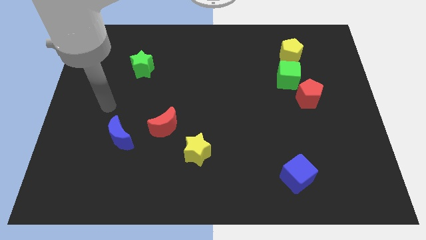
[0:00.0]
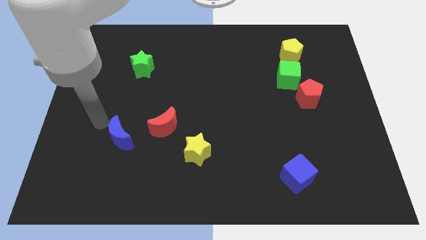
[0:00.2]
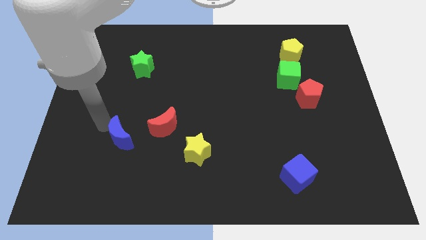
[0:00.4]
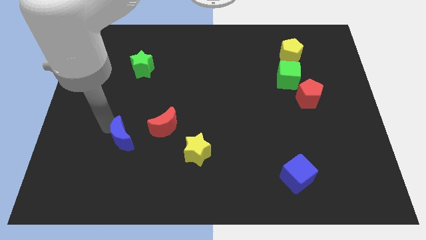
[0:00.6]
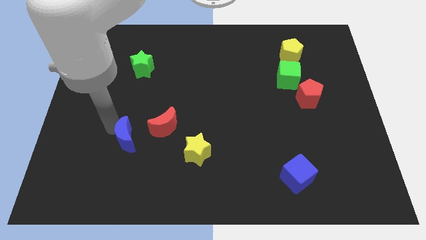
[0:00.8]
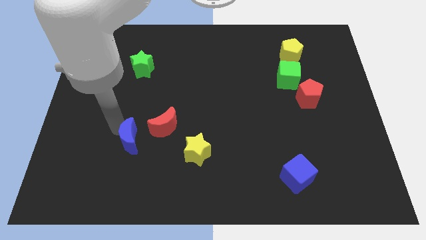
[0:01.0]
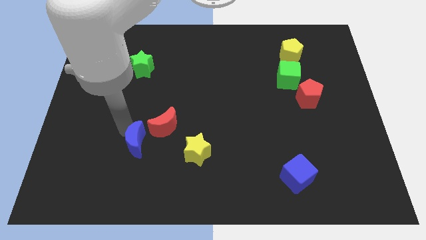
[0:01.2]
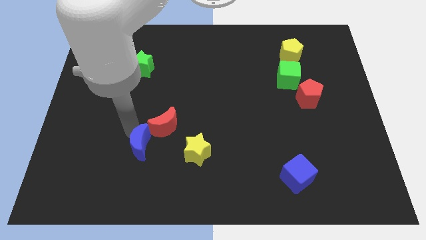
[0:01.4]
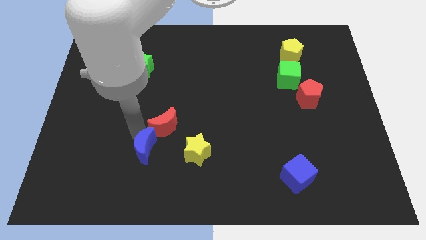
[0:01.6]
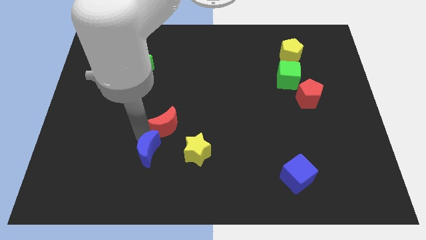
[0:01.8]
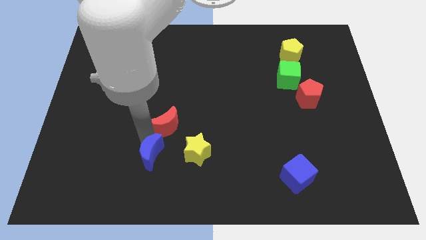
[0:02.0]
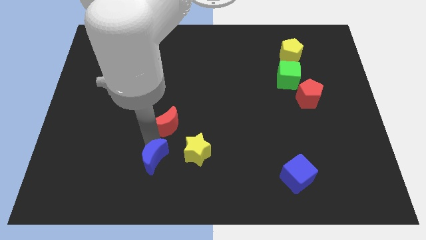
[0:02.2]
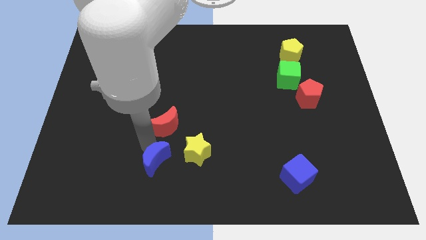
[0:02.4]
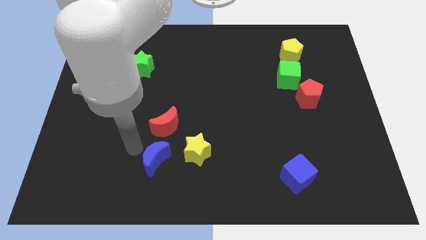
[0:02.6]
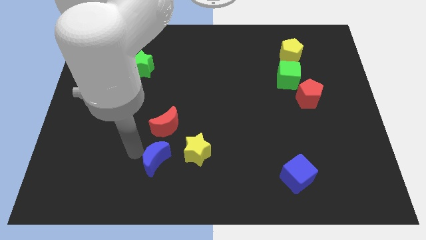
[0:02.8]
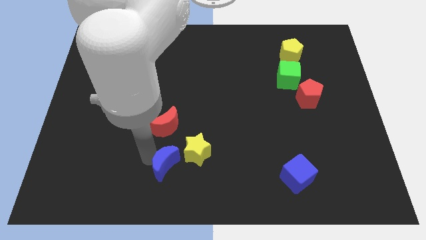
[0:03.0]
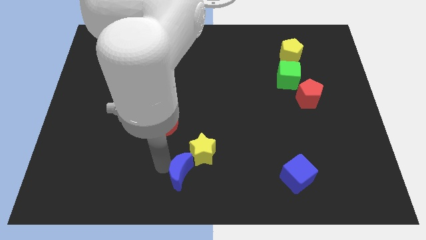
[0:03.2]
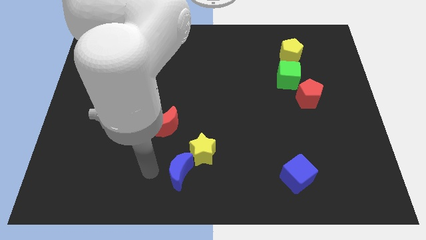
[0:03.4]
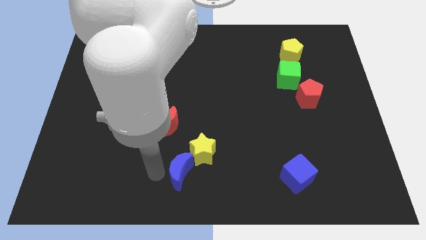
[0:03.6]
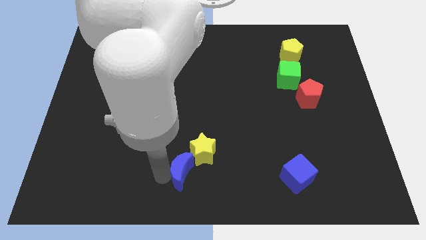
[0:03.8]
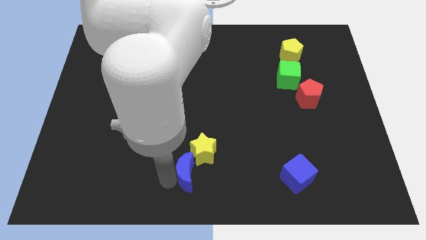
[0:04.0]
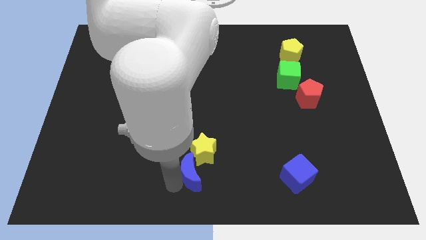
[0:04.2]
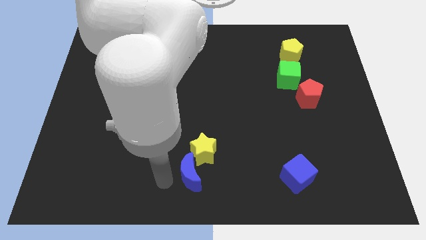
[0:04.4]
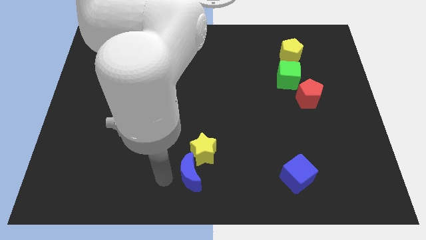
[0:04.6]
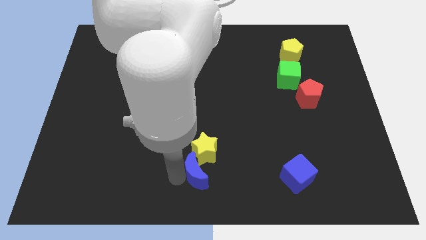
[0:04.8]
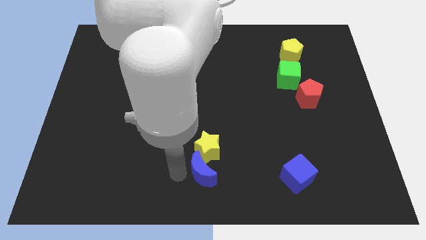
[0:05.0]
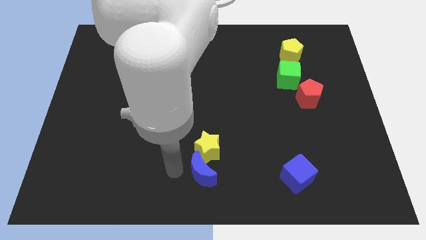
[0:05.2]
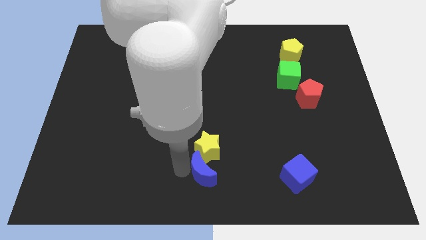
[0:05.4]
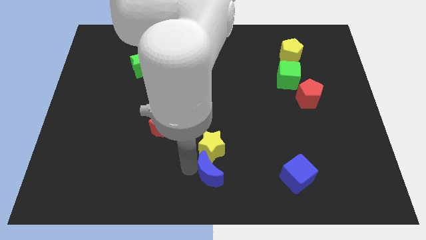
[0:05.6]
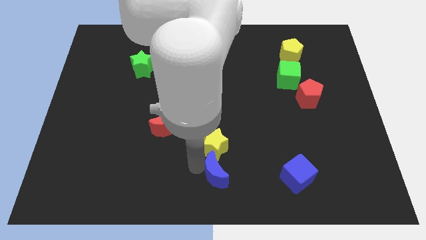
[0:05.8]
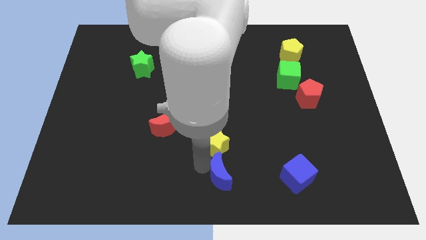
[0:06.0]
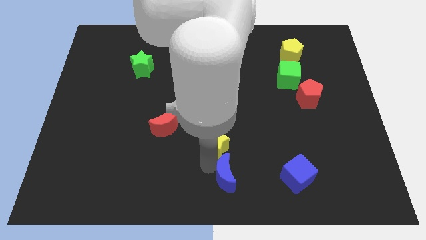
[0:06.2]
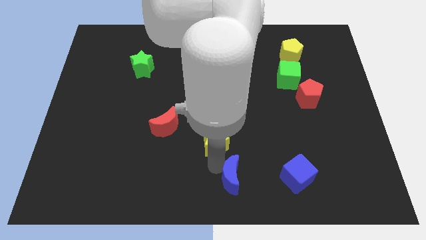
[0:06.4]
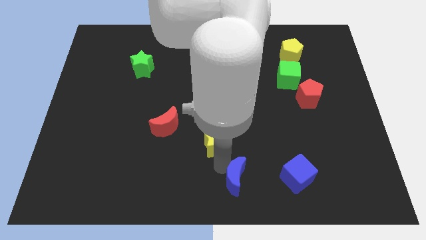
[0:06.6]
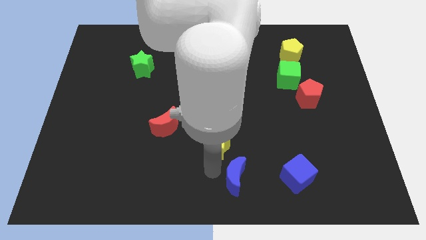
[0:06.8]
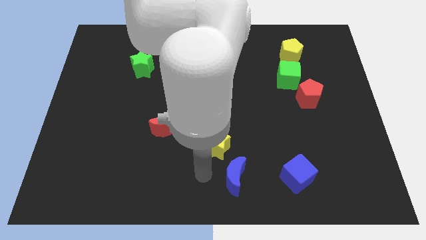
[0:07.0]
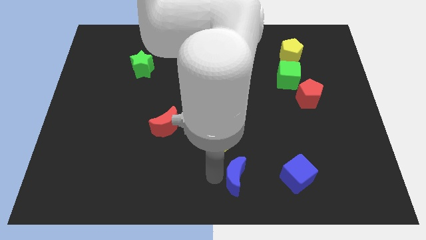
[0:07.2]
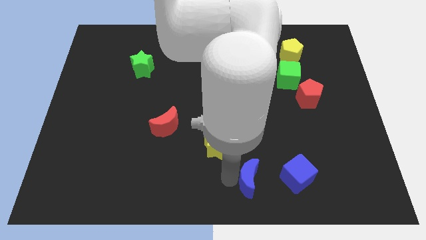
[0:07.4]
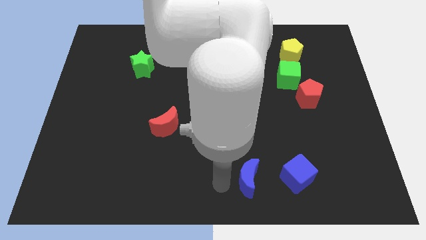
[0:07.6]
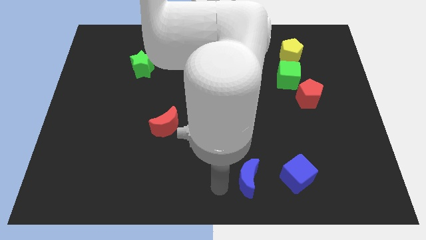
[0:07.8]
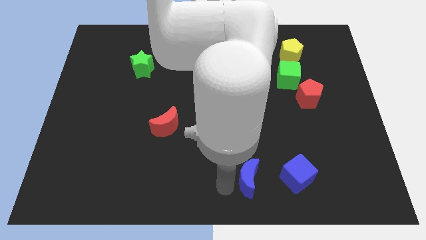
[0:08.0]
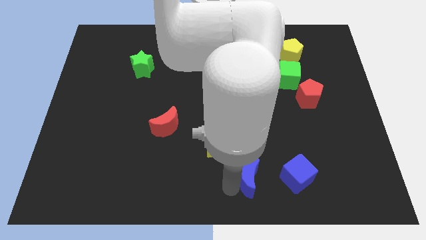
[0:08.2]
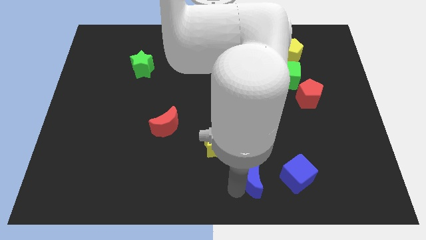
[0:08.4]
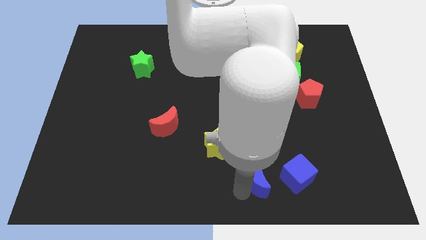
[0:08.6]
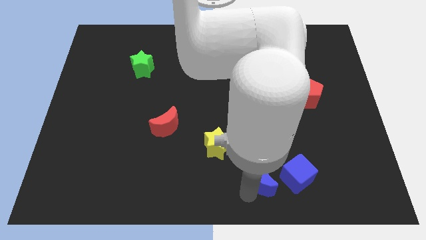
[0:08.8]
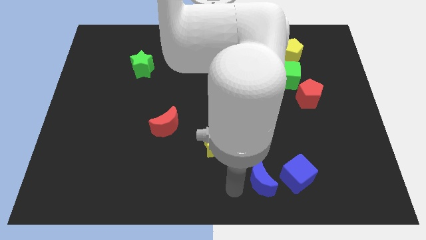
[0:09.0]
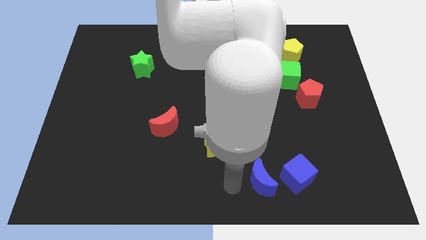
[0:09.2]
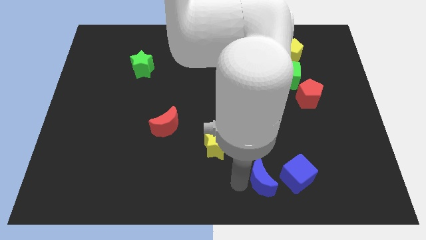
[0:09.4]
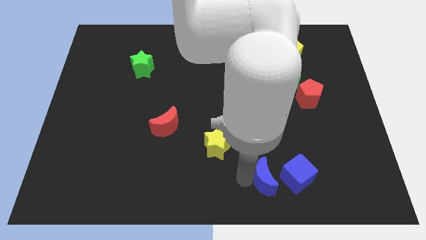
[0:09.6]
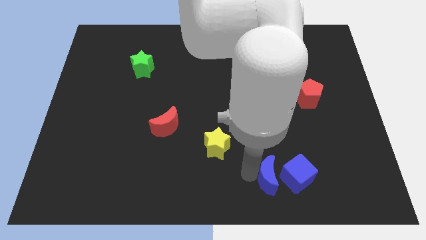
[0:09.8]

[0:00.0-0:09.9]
slide the blue moon close to the blue cube

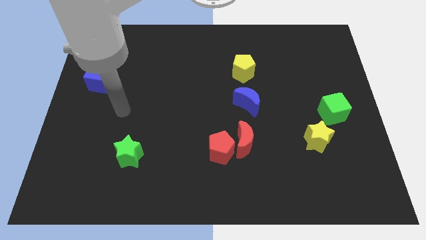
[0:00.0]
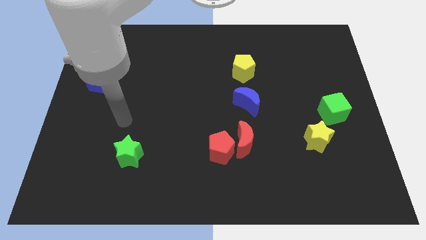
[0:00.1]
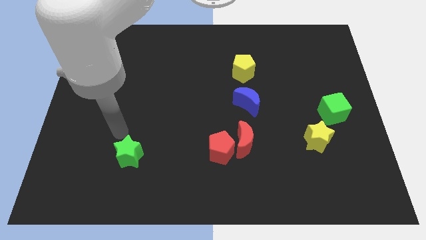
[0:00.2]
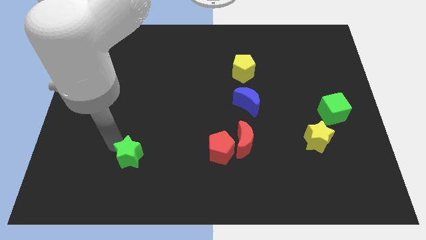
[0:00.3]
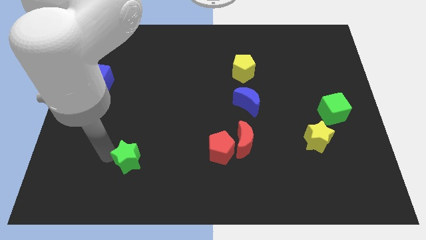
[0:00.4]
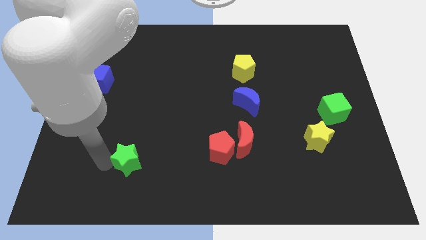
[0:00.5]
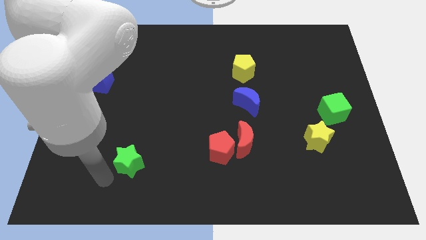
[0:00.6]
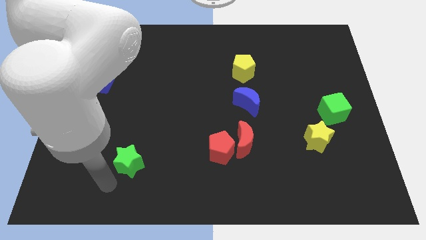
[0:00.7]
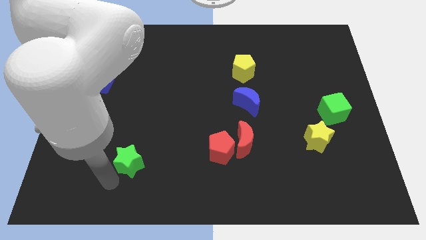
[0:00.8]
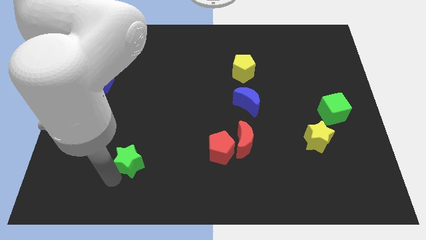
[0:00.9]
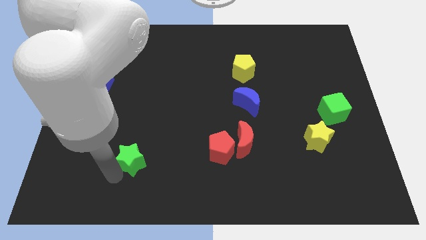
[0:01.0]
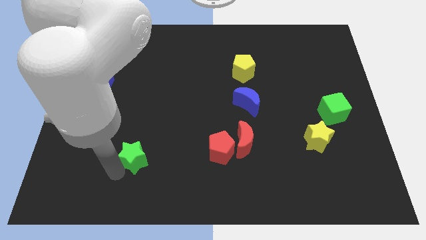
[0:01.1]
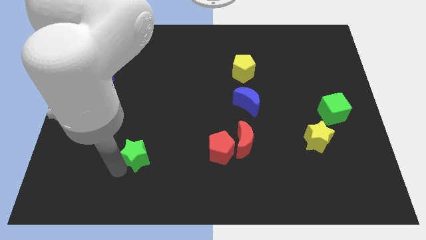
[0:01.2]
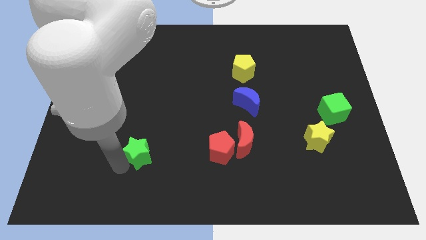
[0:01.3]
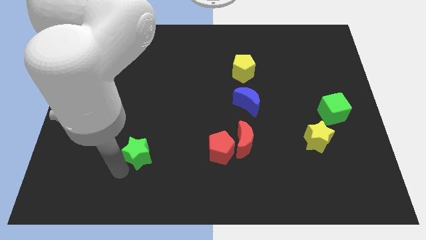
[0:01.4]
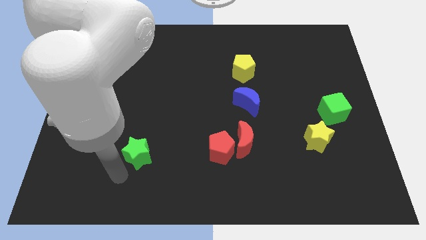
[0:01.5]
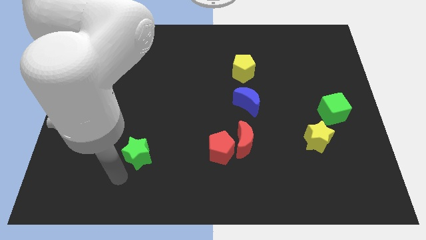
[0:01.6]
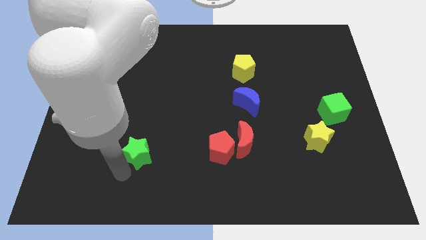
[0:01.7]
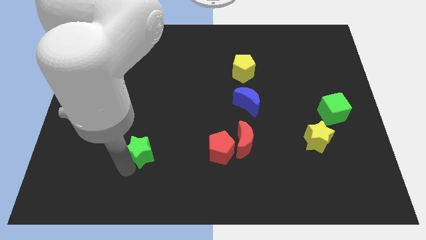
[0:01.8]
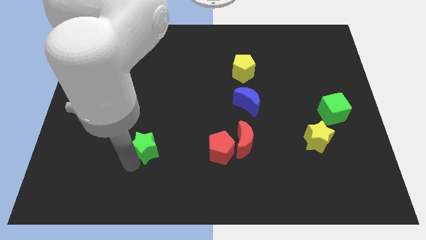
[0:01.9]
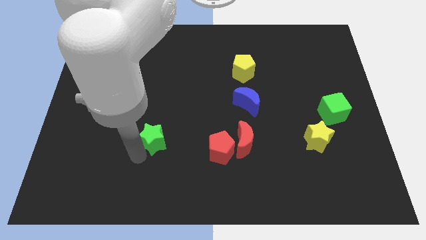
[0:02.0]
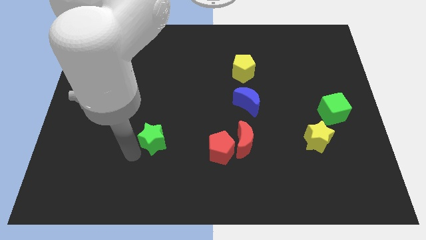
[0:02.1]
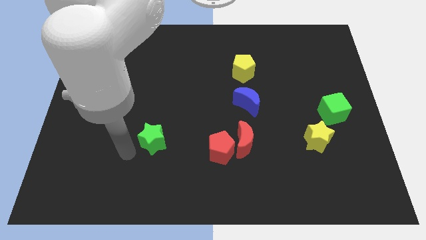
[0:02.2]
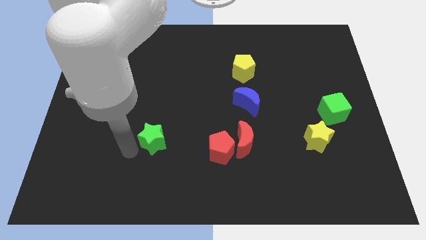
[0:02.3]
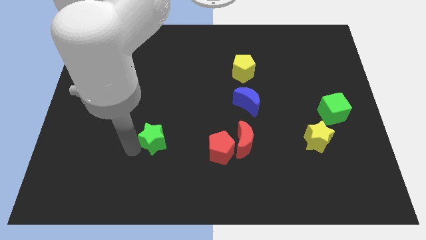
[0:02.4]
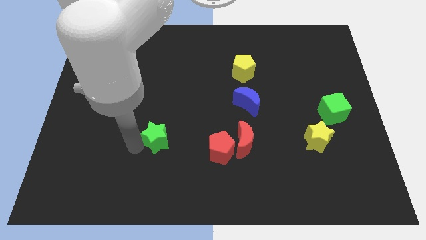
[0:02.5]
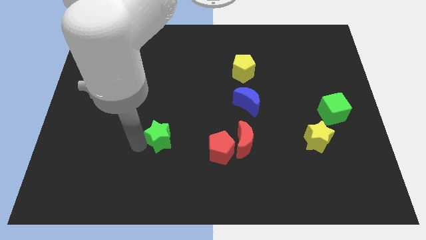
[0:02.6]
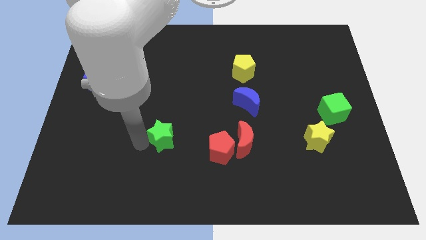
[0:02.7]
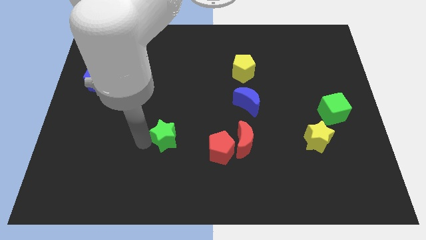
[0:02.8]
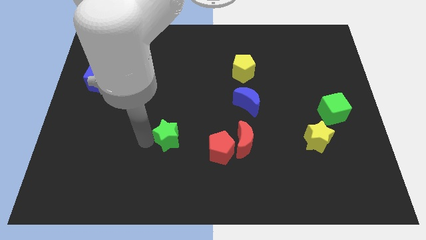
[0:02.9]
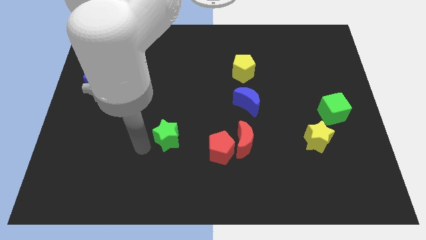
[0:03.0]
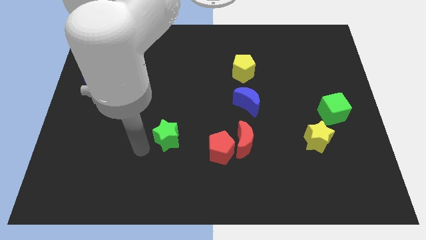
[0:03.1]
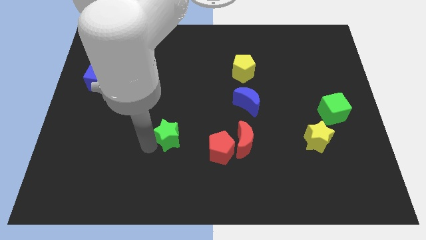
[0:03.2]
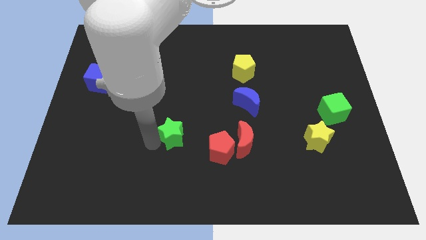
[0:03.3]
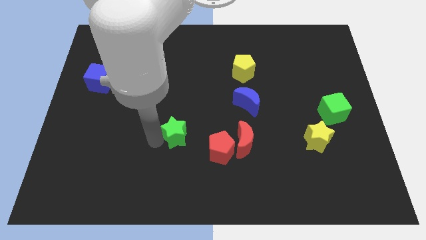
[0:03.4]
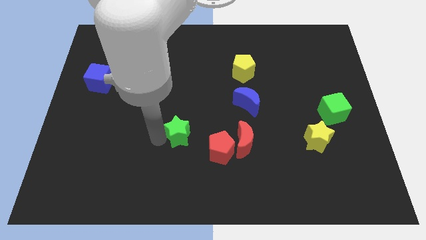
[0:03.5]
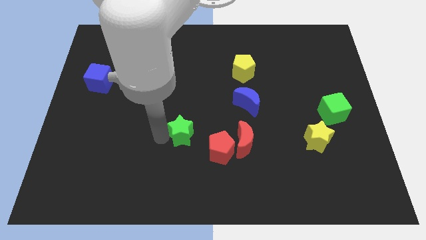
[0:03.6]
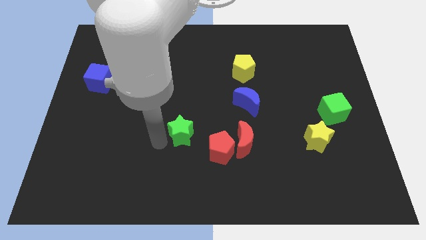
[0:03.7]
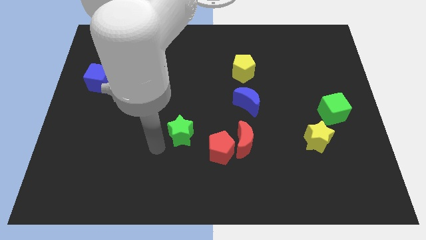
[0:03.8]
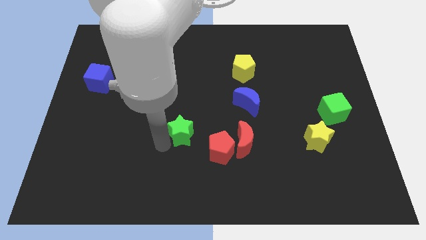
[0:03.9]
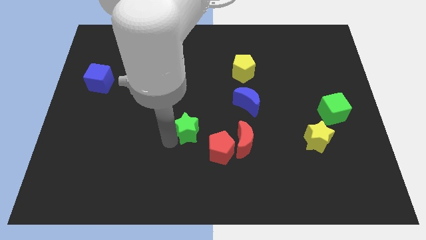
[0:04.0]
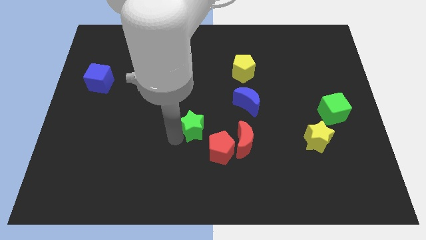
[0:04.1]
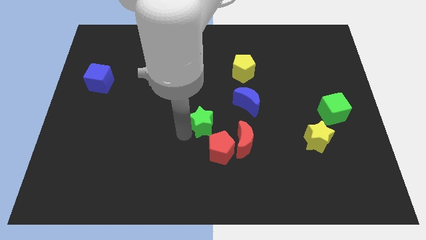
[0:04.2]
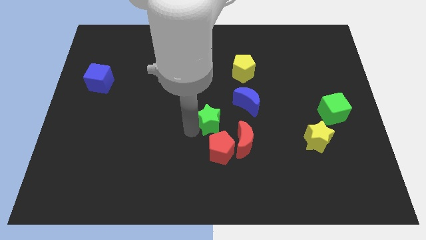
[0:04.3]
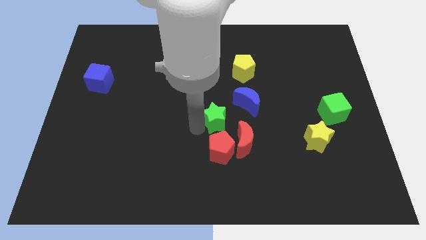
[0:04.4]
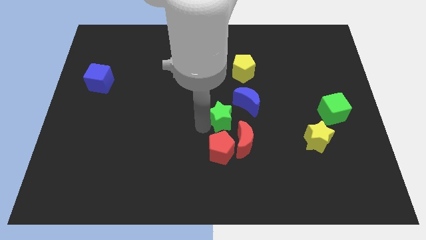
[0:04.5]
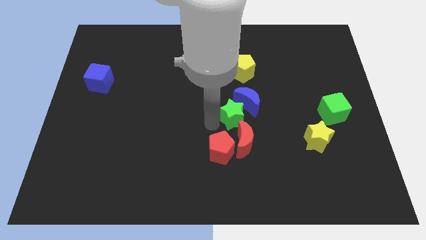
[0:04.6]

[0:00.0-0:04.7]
push the green star to the blue moon
